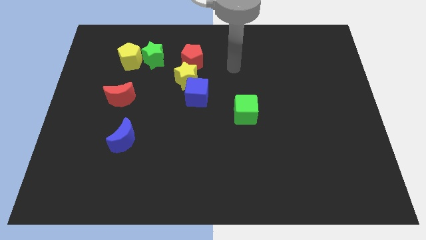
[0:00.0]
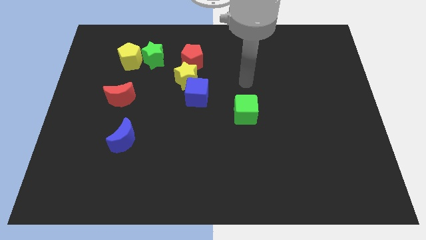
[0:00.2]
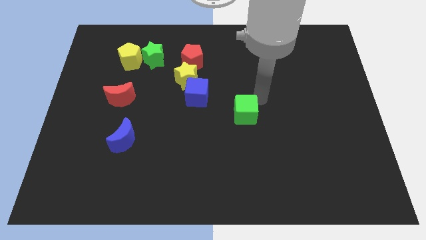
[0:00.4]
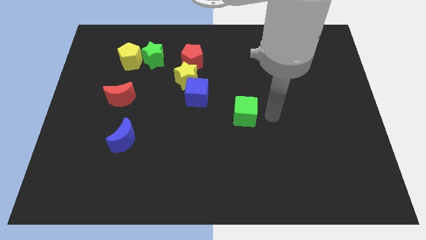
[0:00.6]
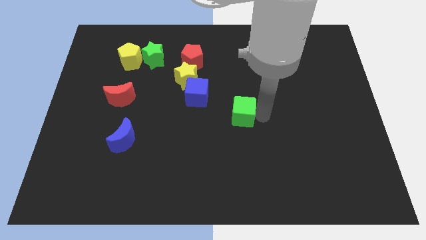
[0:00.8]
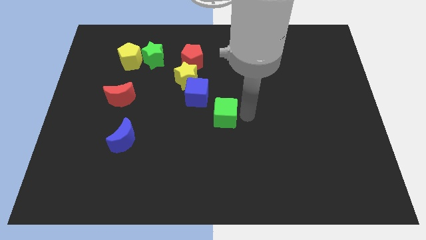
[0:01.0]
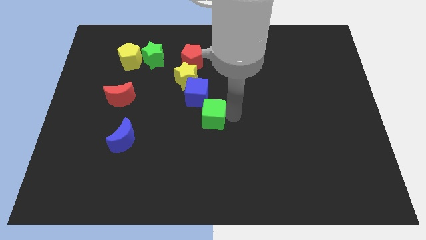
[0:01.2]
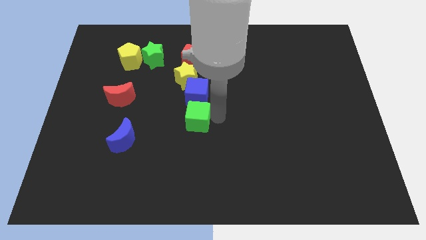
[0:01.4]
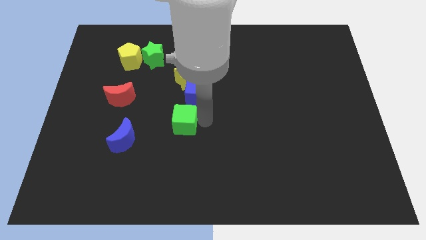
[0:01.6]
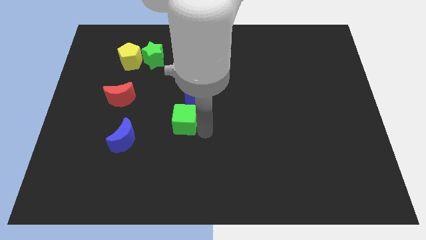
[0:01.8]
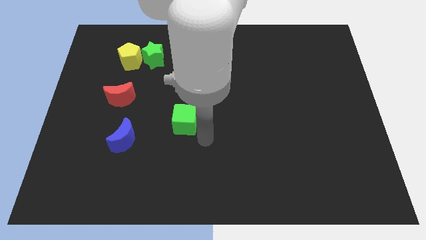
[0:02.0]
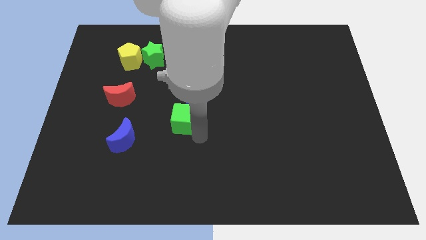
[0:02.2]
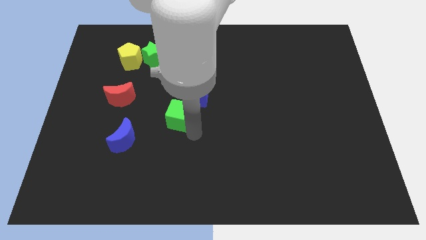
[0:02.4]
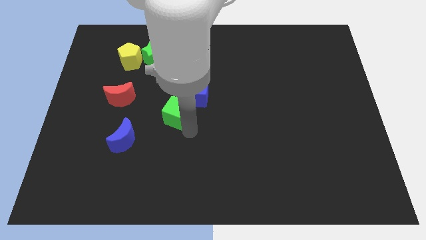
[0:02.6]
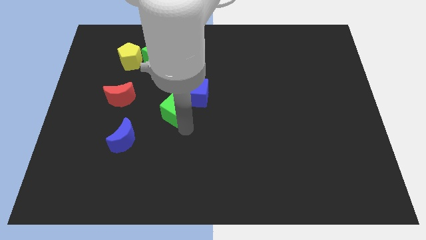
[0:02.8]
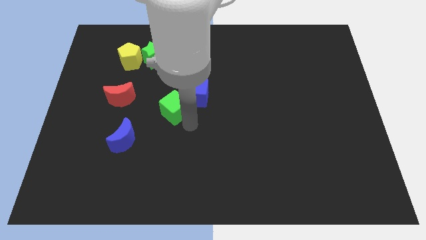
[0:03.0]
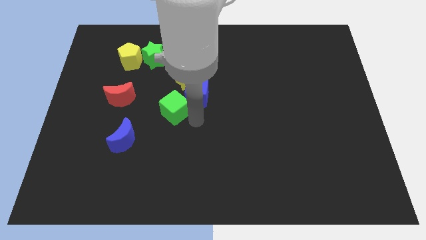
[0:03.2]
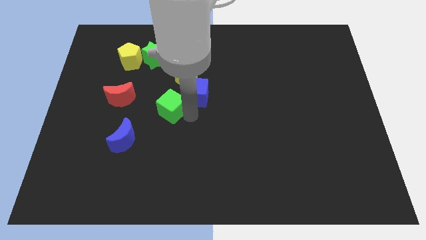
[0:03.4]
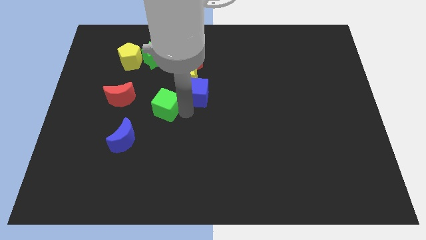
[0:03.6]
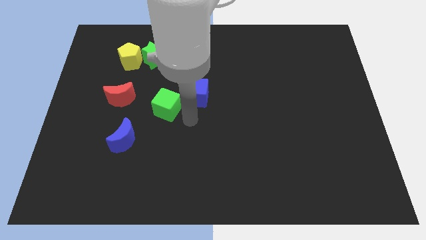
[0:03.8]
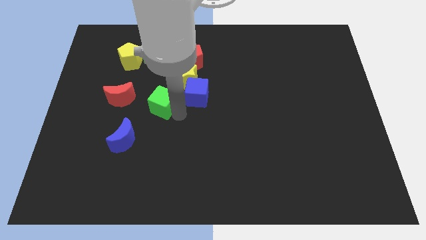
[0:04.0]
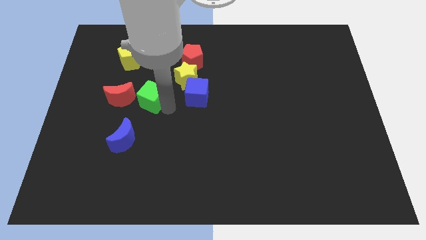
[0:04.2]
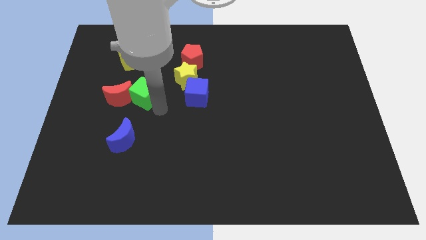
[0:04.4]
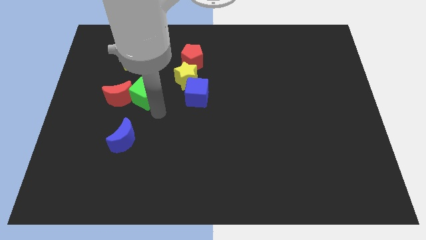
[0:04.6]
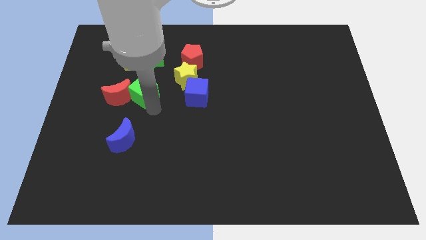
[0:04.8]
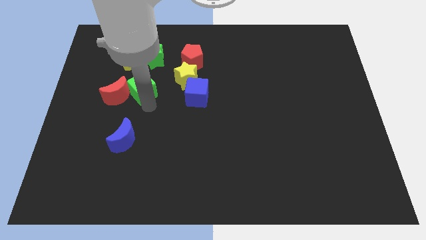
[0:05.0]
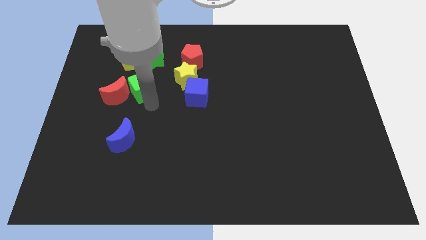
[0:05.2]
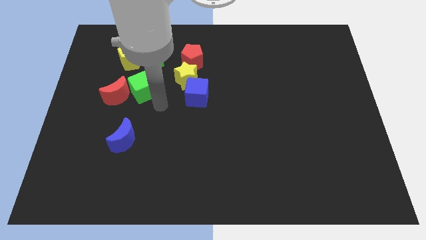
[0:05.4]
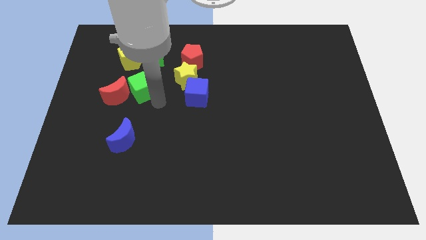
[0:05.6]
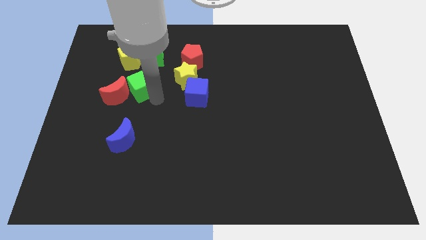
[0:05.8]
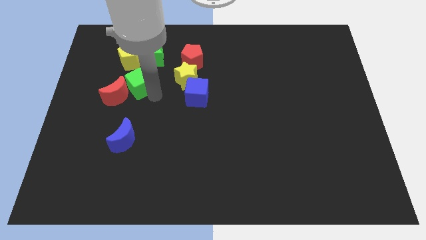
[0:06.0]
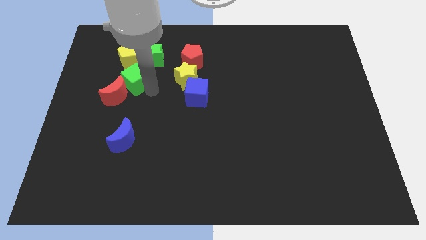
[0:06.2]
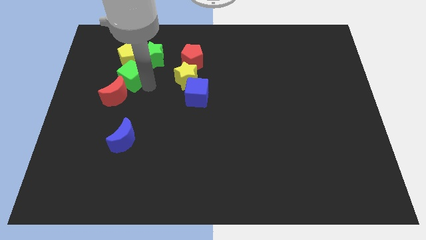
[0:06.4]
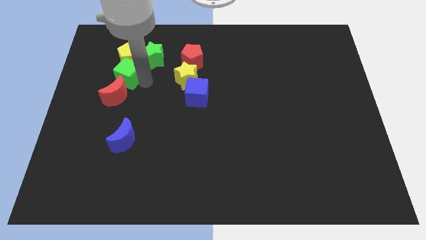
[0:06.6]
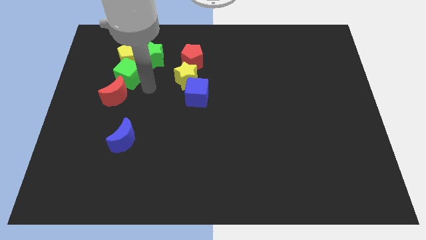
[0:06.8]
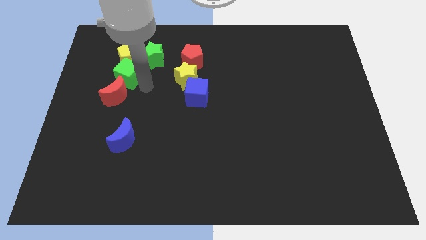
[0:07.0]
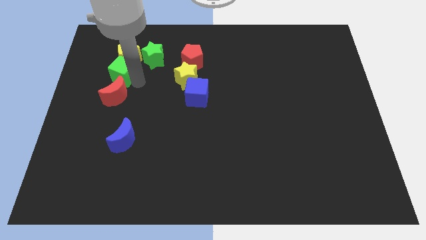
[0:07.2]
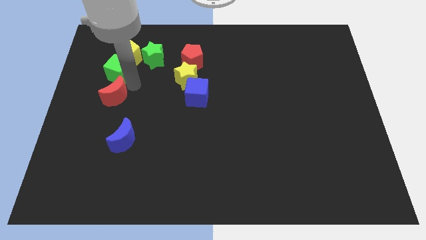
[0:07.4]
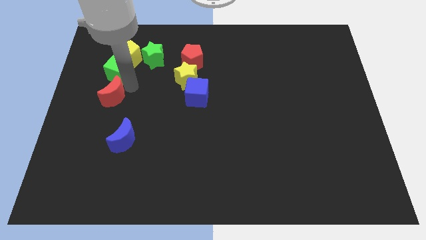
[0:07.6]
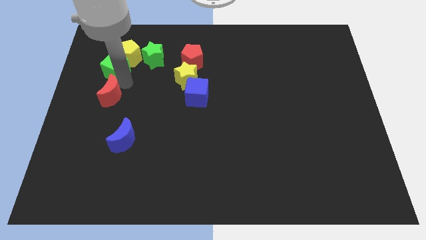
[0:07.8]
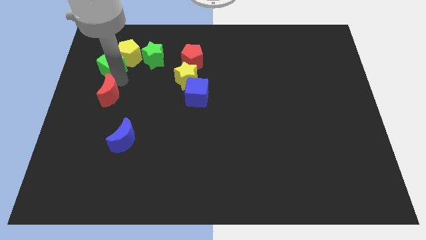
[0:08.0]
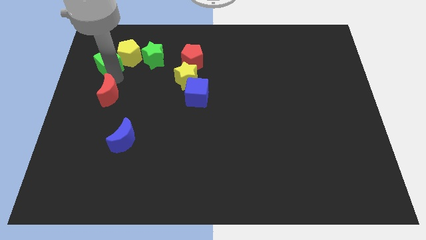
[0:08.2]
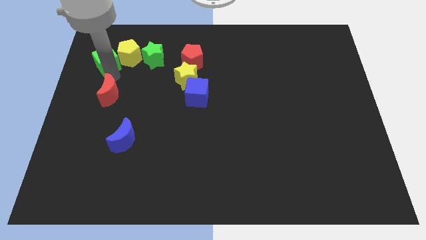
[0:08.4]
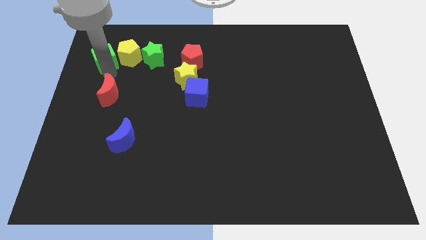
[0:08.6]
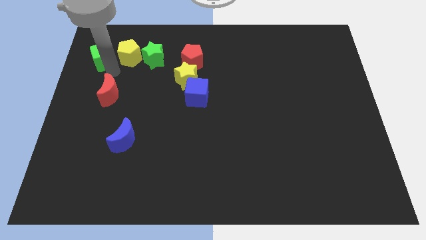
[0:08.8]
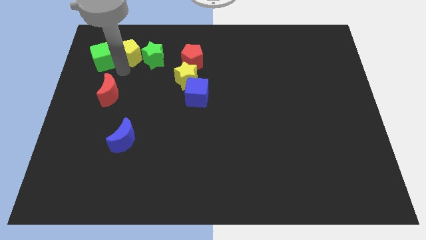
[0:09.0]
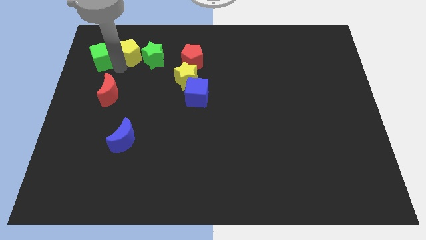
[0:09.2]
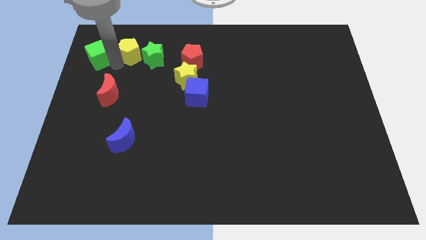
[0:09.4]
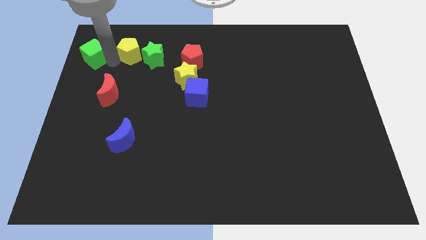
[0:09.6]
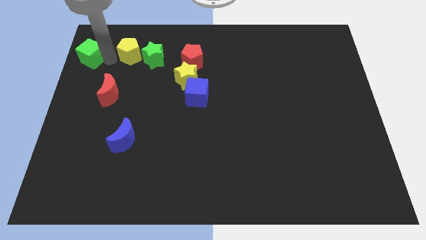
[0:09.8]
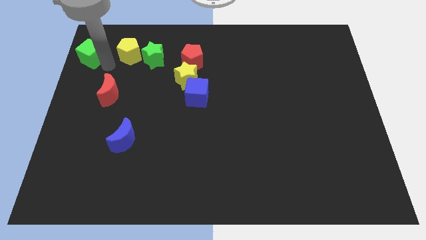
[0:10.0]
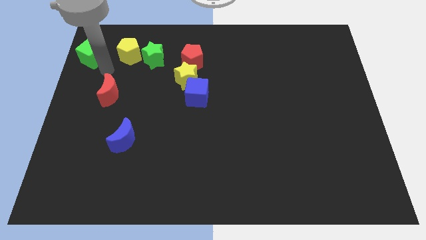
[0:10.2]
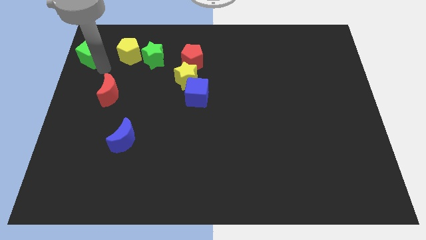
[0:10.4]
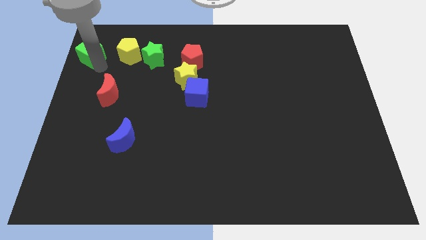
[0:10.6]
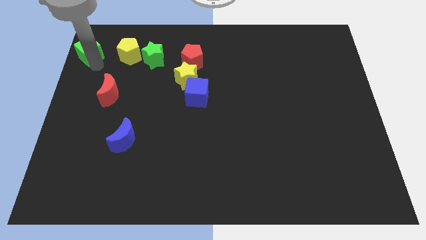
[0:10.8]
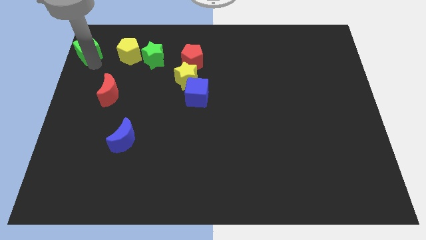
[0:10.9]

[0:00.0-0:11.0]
slide the green cube to the top left corner
